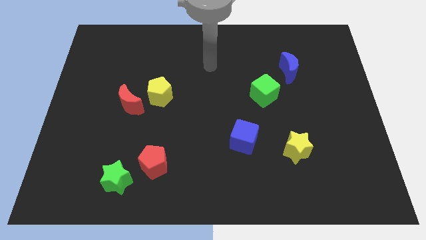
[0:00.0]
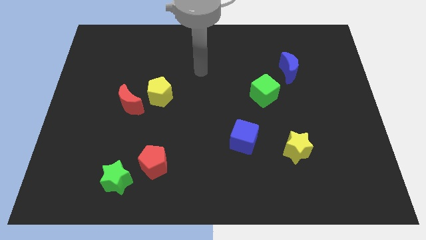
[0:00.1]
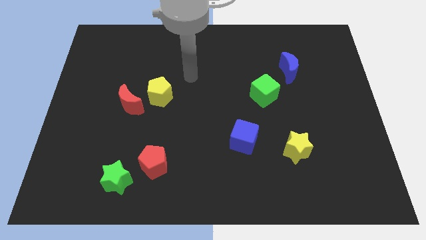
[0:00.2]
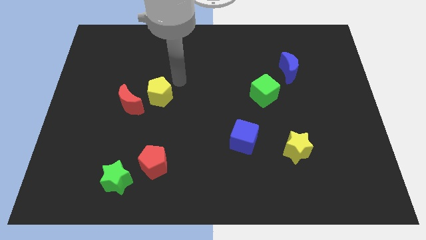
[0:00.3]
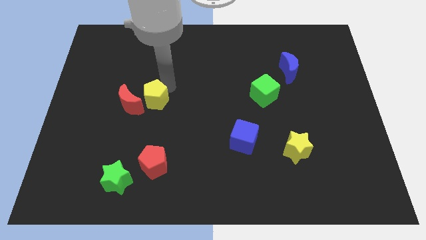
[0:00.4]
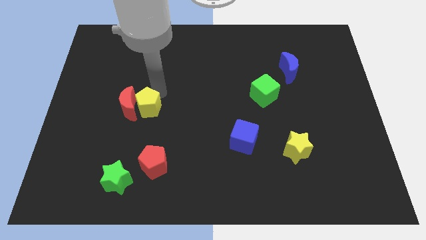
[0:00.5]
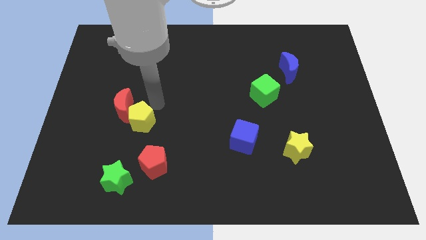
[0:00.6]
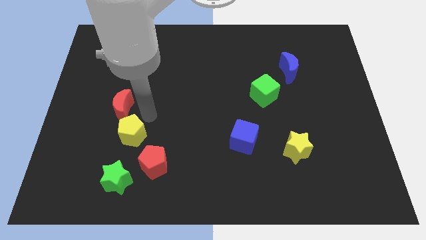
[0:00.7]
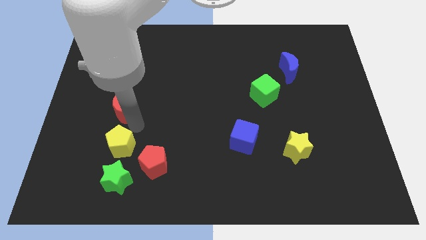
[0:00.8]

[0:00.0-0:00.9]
pull the red moon apart from the yellow pentagon

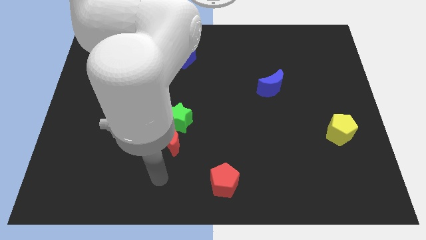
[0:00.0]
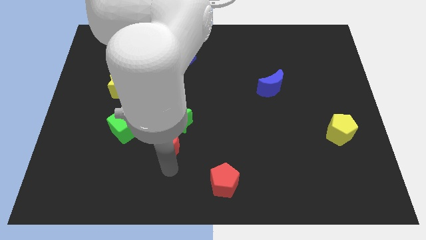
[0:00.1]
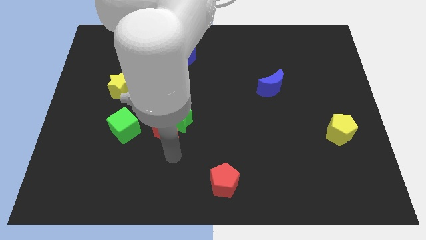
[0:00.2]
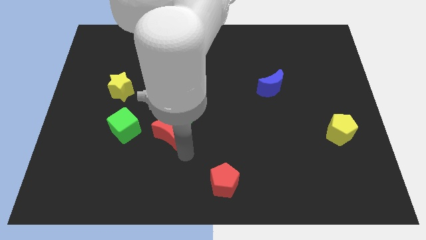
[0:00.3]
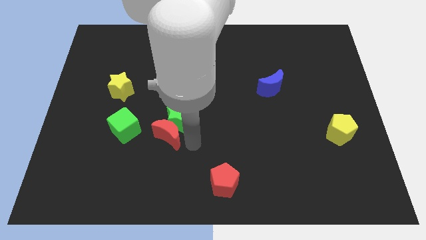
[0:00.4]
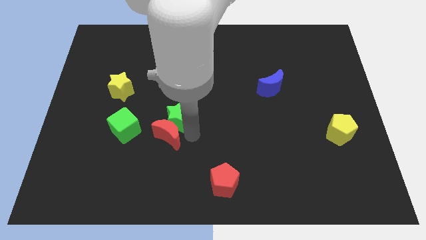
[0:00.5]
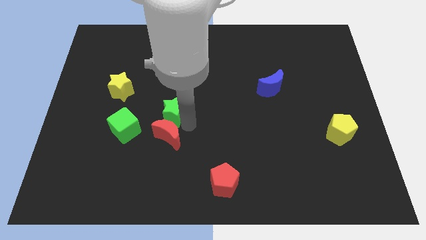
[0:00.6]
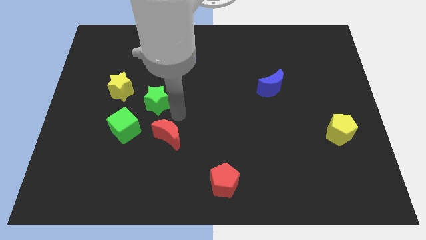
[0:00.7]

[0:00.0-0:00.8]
pull the red moon apart from the green star

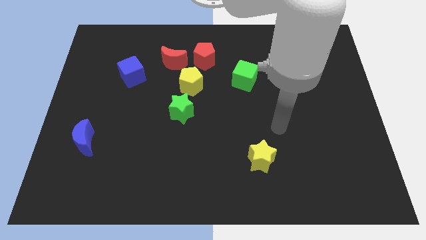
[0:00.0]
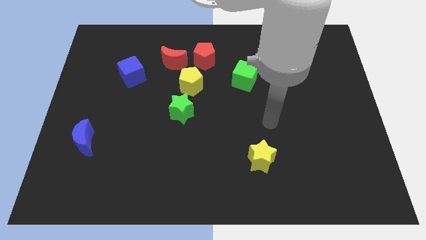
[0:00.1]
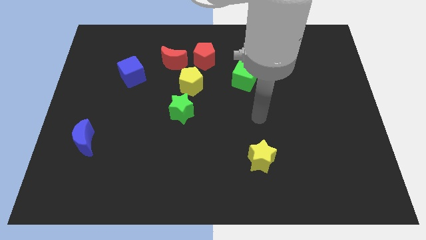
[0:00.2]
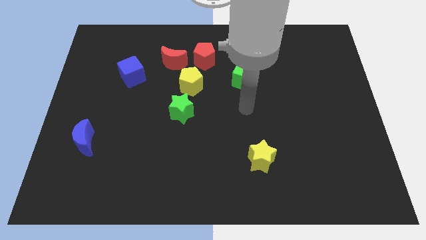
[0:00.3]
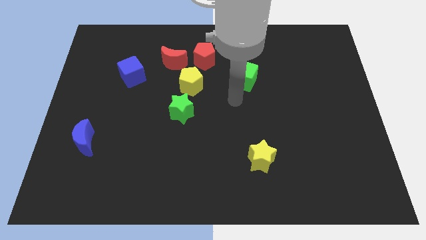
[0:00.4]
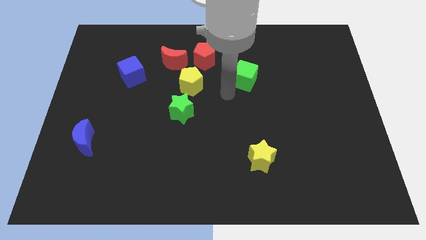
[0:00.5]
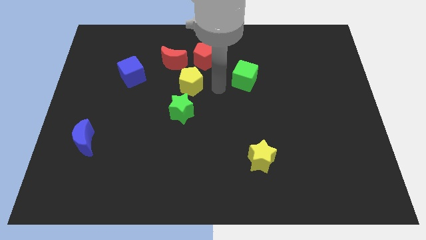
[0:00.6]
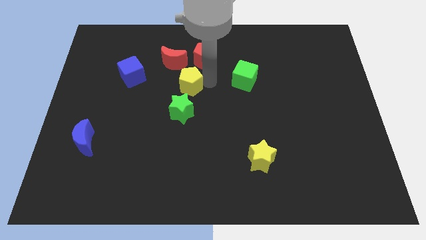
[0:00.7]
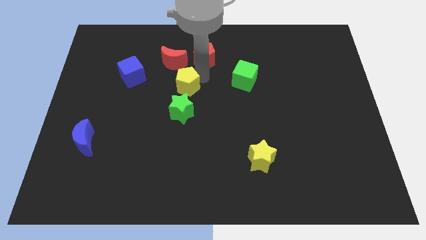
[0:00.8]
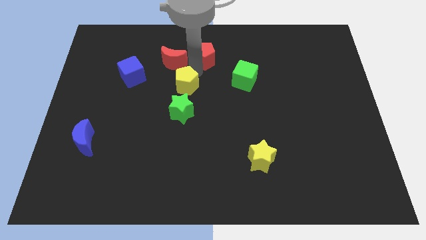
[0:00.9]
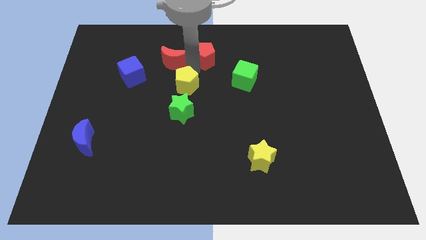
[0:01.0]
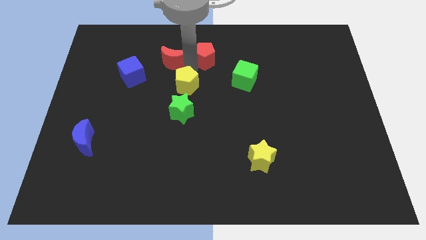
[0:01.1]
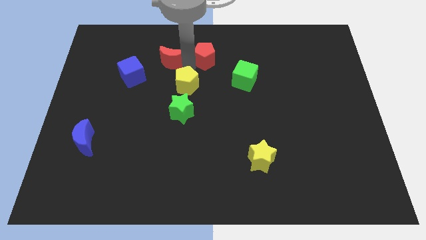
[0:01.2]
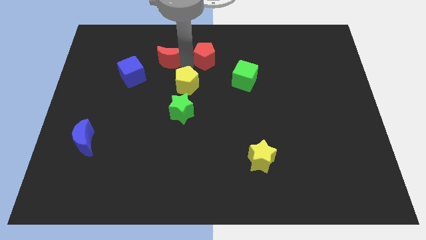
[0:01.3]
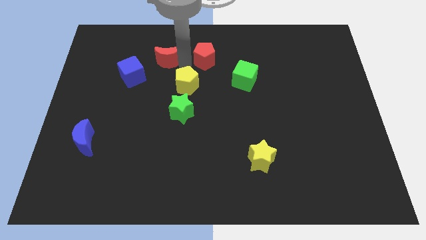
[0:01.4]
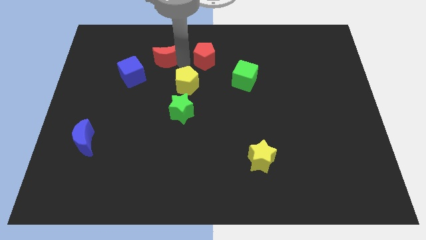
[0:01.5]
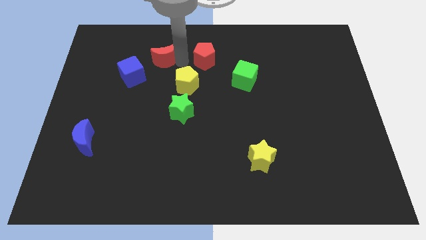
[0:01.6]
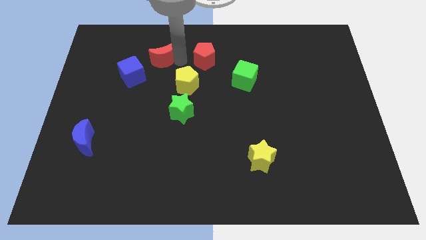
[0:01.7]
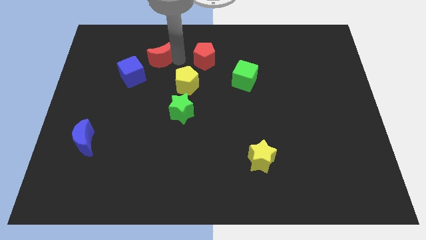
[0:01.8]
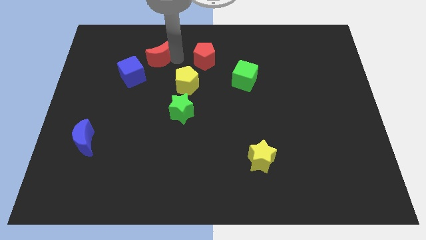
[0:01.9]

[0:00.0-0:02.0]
pull the red moon apart from the red pentagon and yellow pentagon

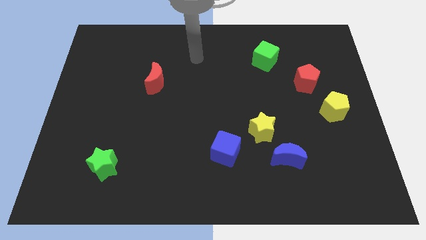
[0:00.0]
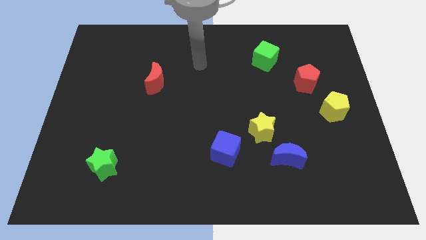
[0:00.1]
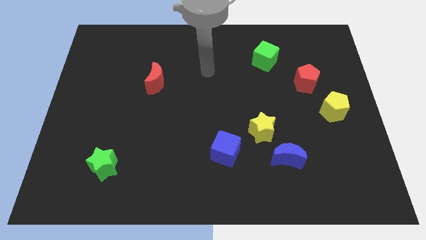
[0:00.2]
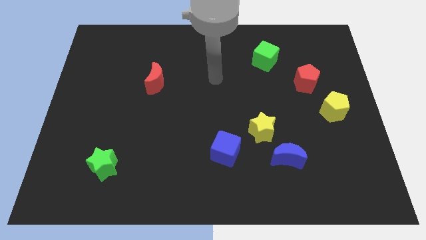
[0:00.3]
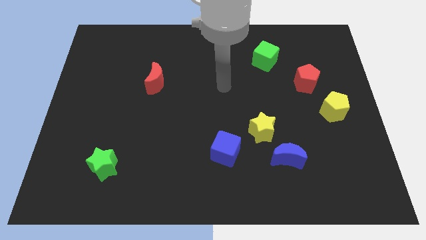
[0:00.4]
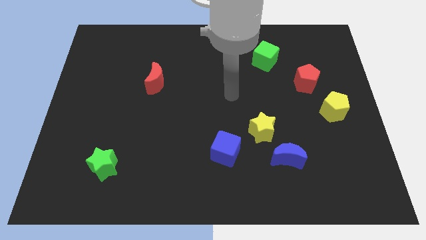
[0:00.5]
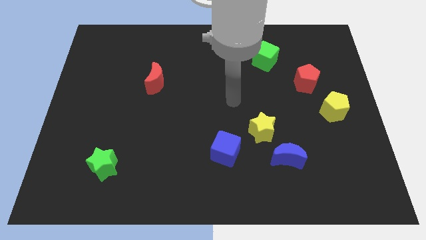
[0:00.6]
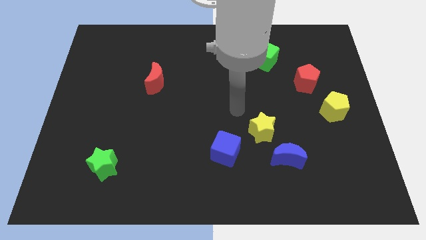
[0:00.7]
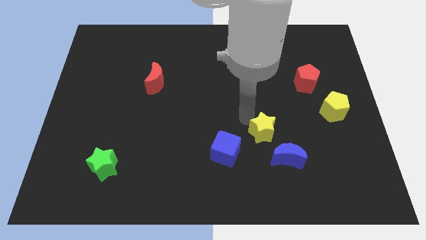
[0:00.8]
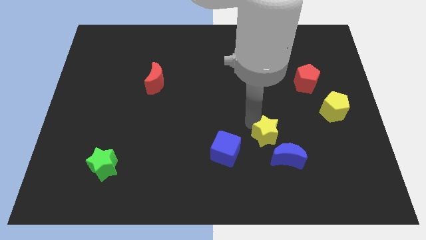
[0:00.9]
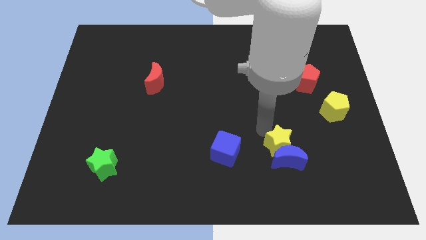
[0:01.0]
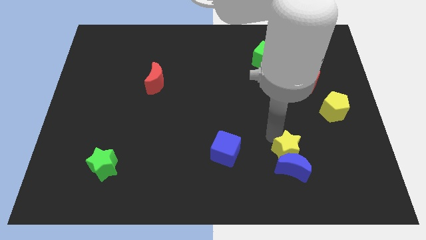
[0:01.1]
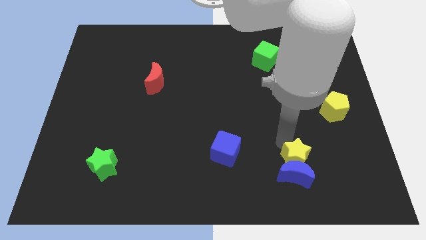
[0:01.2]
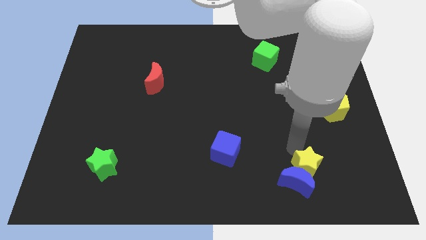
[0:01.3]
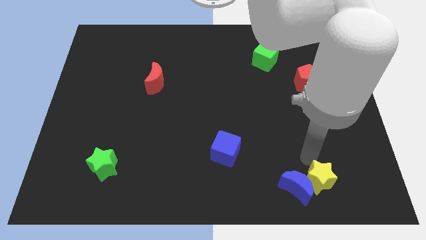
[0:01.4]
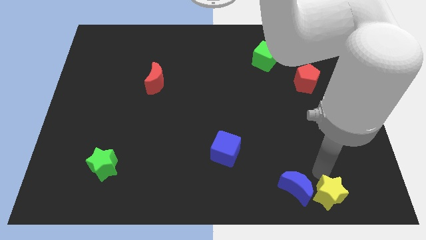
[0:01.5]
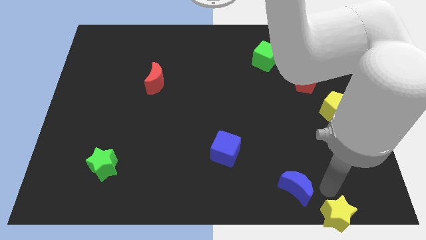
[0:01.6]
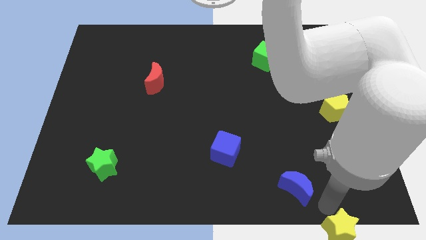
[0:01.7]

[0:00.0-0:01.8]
separate the blue moon from the yellow star

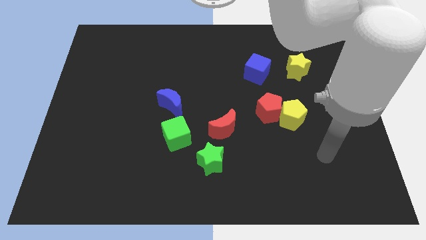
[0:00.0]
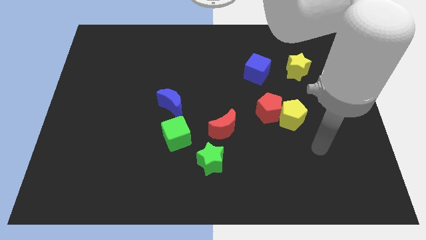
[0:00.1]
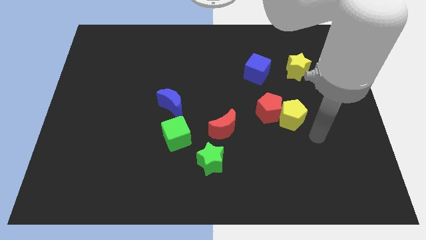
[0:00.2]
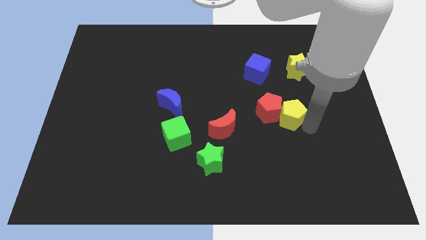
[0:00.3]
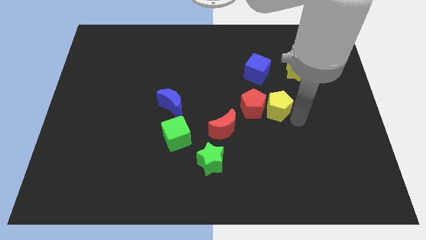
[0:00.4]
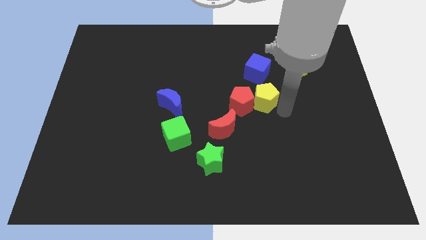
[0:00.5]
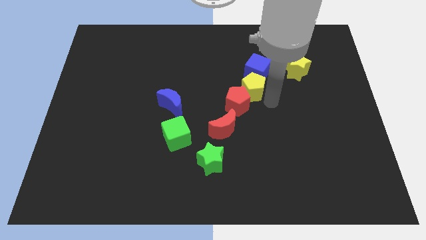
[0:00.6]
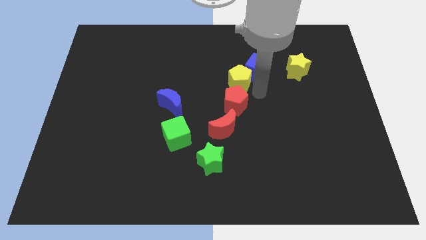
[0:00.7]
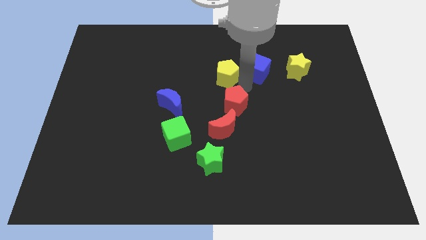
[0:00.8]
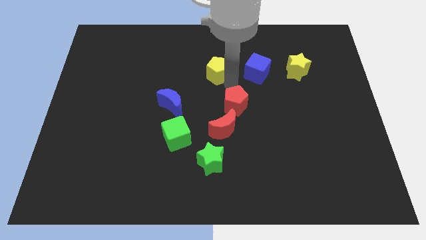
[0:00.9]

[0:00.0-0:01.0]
separate the red pentagon from the yellow pentagon

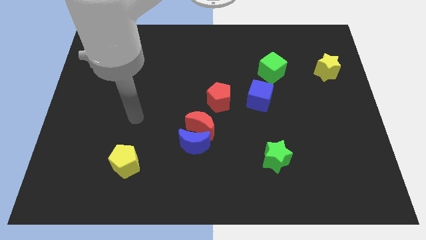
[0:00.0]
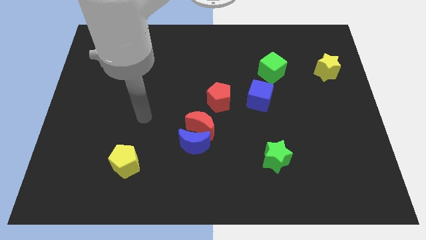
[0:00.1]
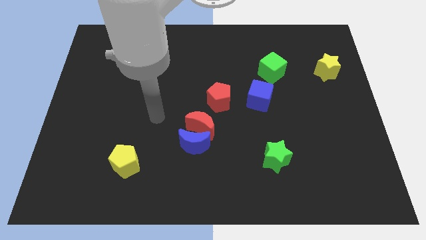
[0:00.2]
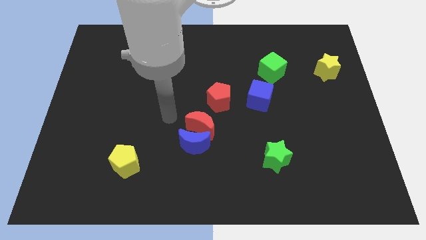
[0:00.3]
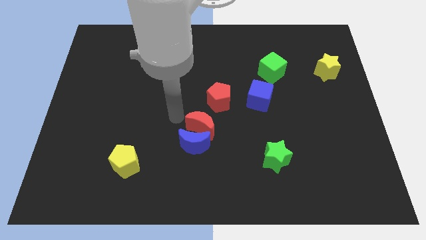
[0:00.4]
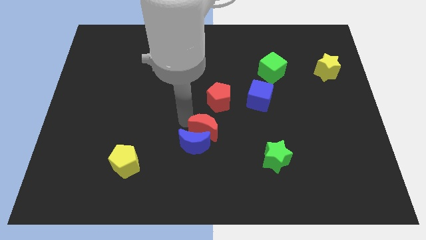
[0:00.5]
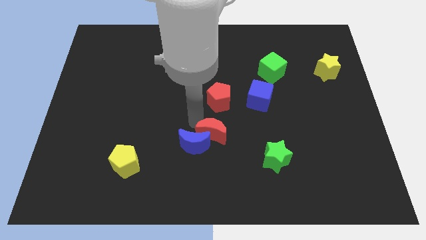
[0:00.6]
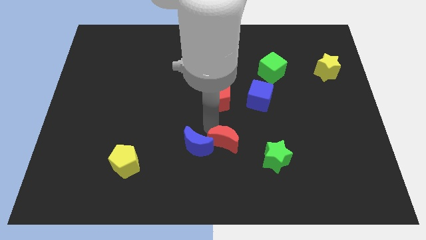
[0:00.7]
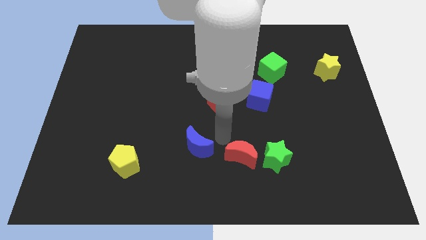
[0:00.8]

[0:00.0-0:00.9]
pull the blue moon apart from the red moon

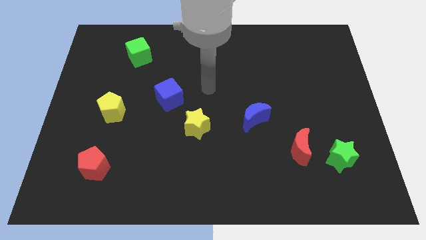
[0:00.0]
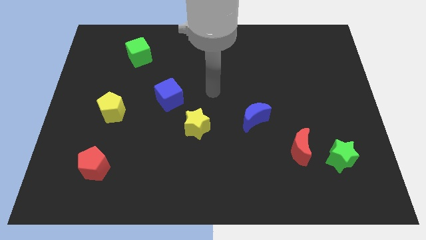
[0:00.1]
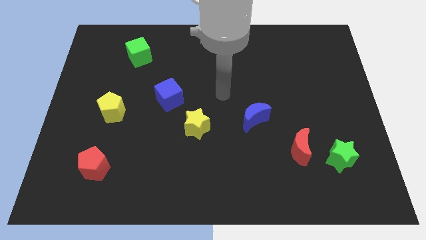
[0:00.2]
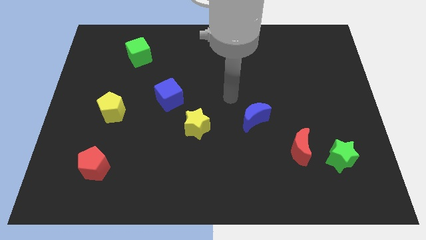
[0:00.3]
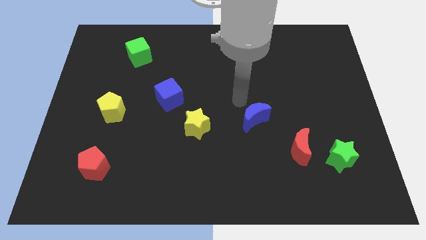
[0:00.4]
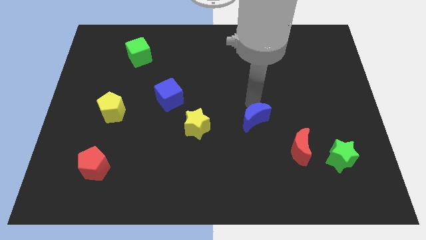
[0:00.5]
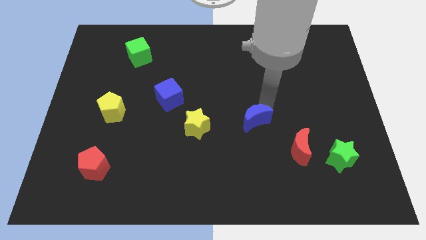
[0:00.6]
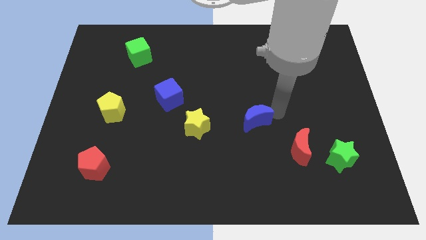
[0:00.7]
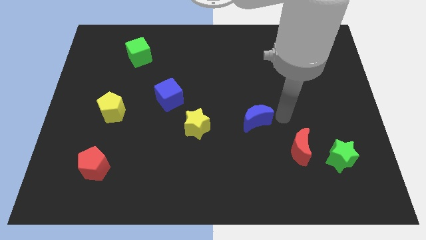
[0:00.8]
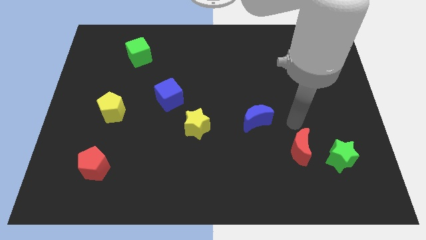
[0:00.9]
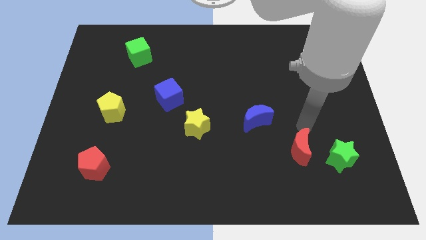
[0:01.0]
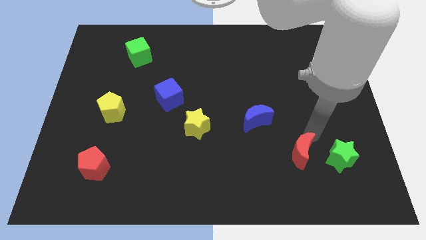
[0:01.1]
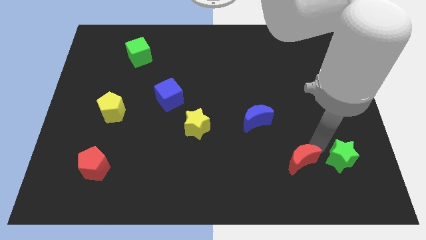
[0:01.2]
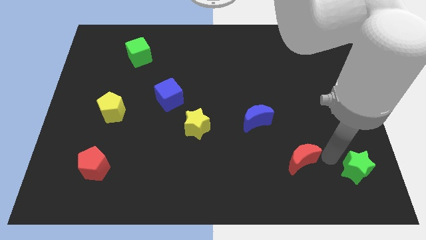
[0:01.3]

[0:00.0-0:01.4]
separate the red moon from the green star

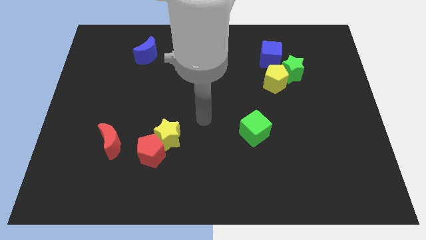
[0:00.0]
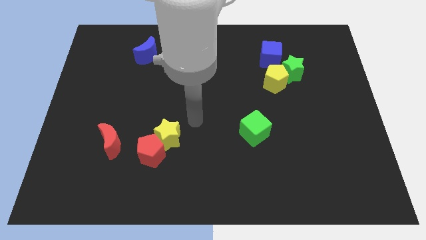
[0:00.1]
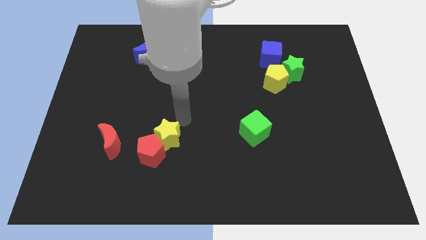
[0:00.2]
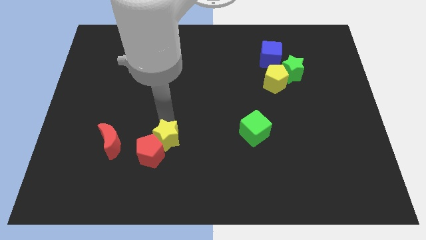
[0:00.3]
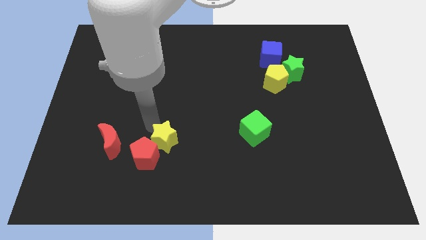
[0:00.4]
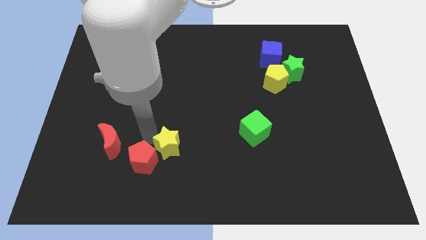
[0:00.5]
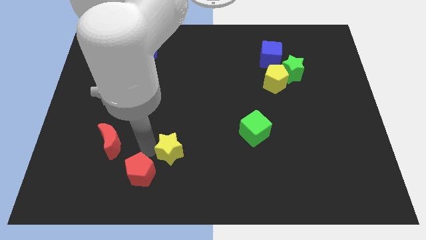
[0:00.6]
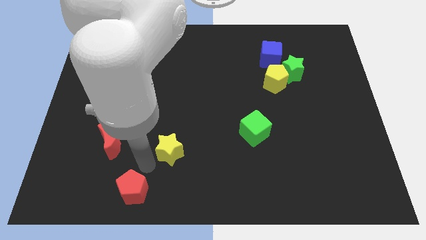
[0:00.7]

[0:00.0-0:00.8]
pull the yellow star apart from the red pentagon
